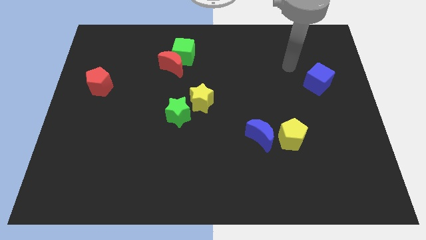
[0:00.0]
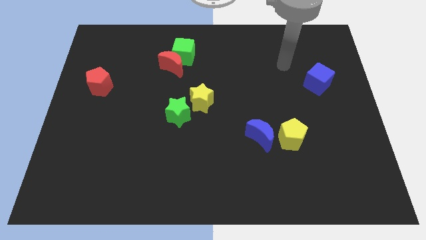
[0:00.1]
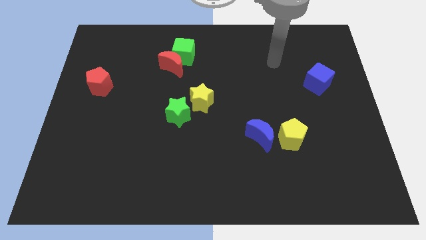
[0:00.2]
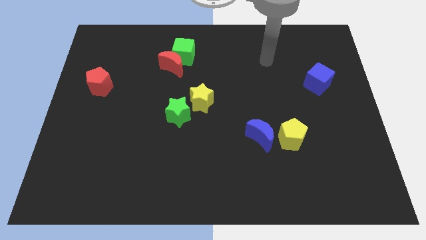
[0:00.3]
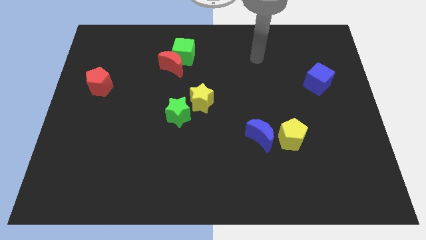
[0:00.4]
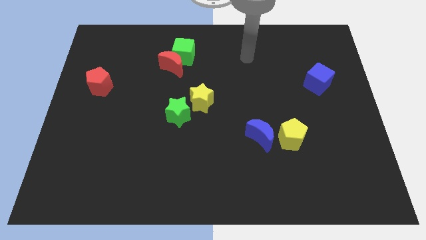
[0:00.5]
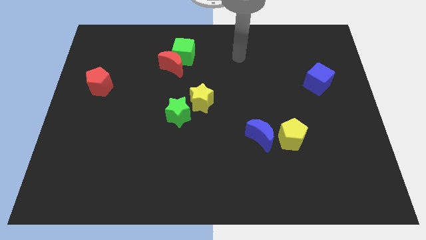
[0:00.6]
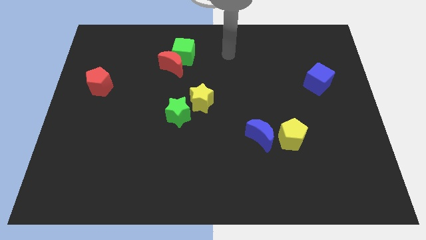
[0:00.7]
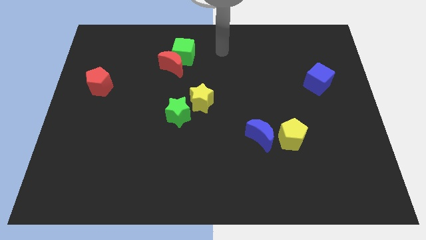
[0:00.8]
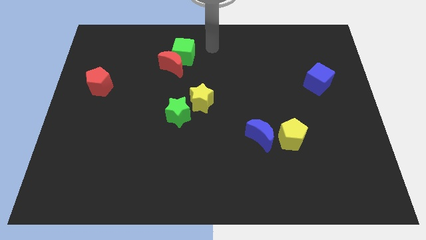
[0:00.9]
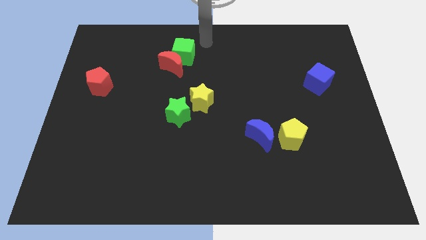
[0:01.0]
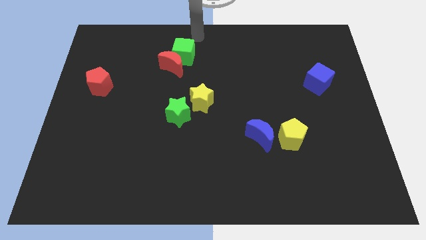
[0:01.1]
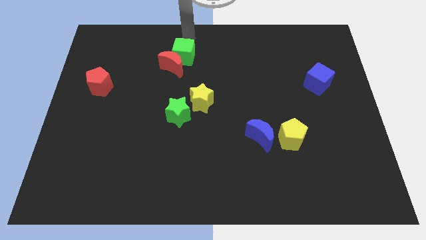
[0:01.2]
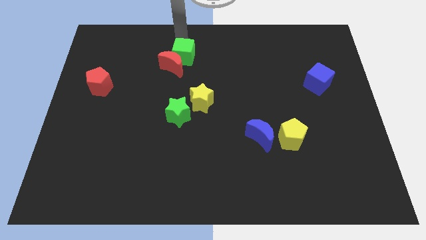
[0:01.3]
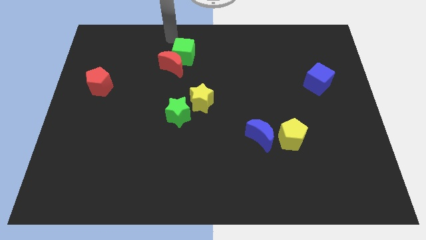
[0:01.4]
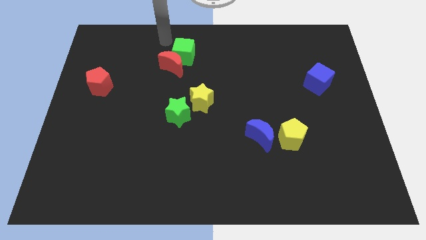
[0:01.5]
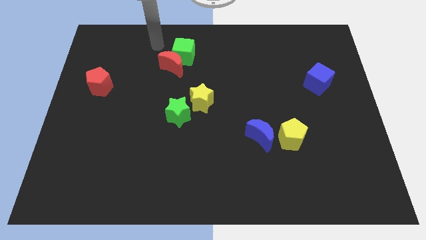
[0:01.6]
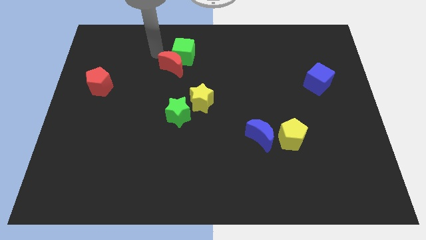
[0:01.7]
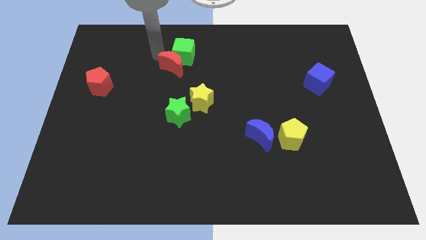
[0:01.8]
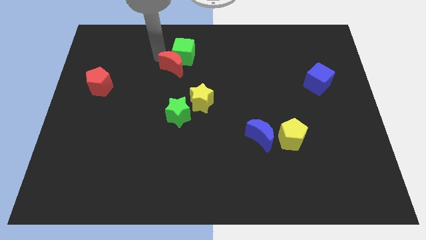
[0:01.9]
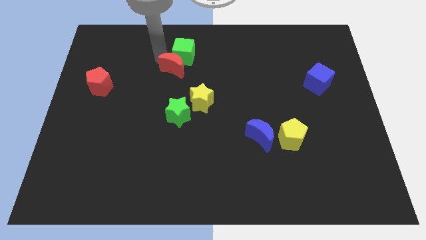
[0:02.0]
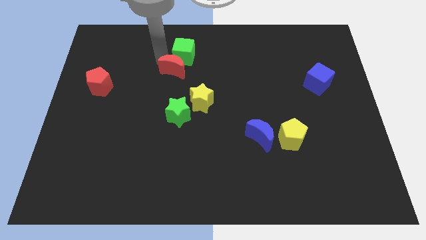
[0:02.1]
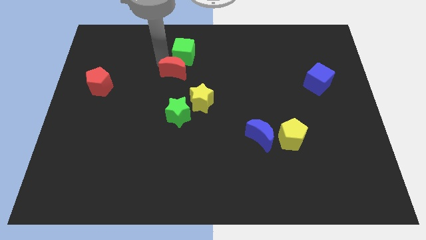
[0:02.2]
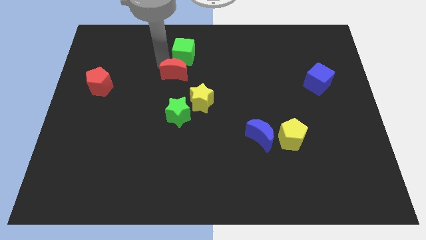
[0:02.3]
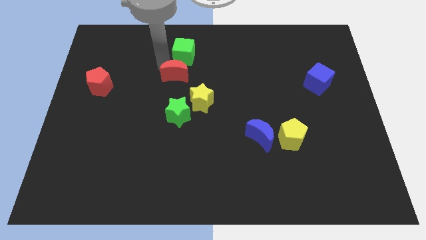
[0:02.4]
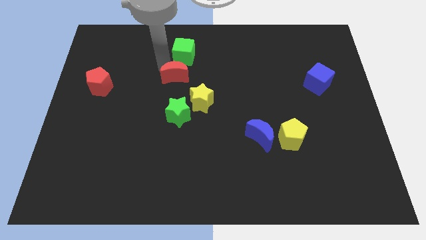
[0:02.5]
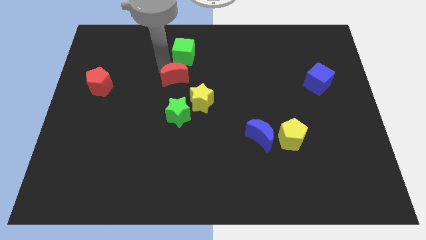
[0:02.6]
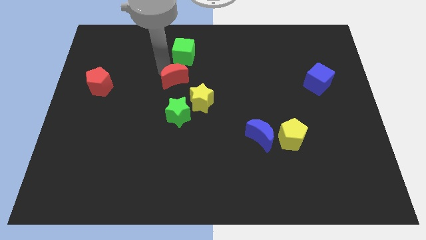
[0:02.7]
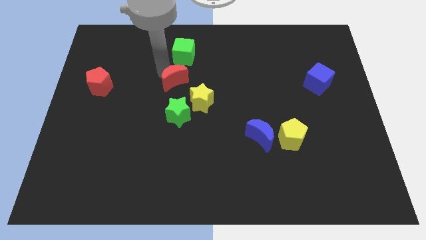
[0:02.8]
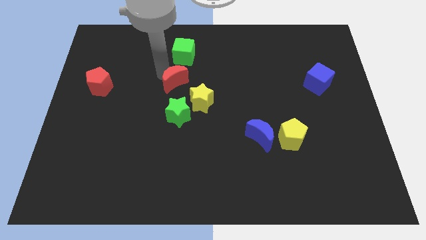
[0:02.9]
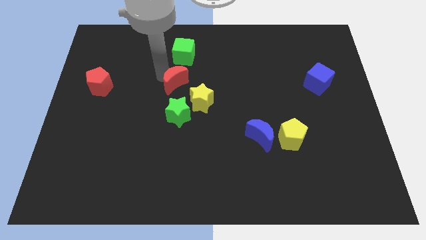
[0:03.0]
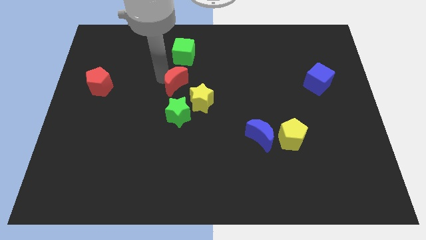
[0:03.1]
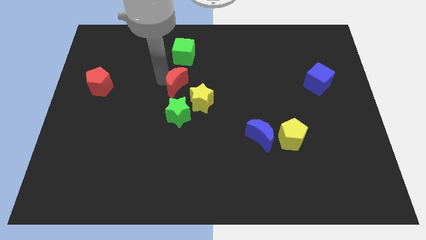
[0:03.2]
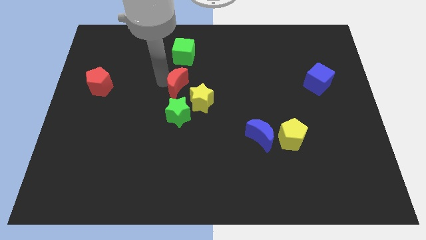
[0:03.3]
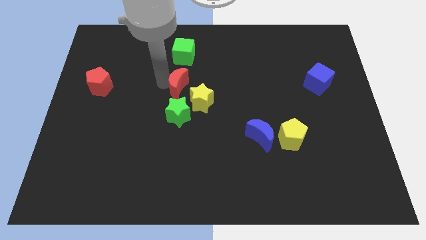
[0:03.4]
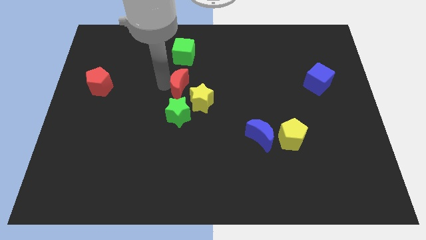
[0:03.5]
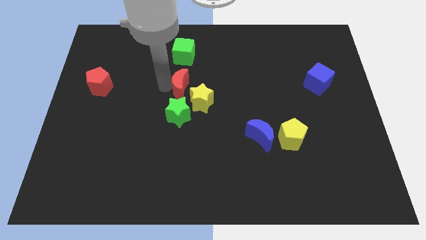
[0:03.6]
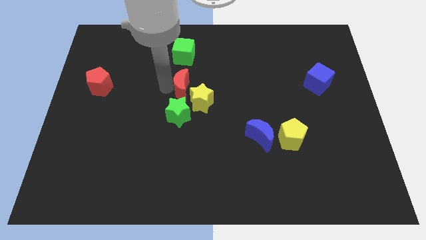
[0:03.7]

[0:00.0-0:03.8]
move the red moon a little bit down and right

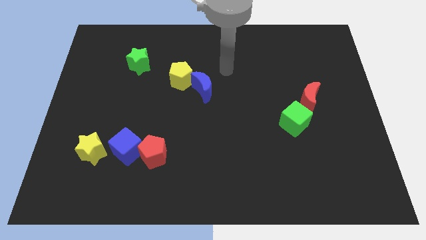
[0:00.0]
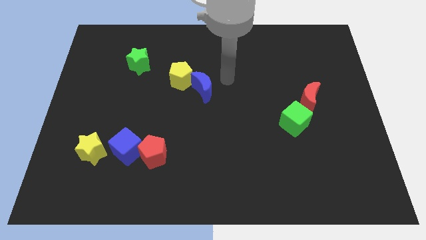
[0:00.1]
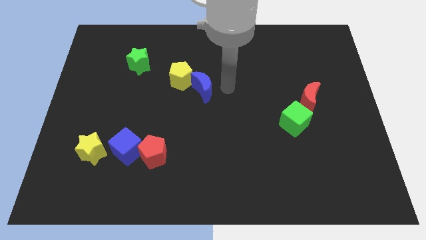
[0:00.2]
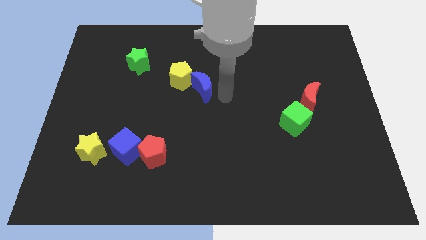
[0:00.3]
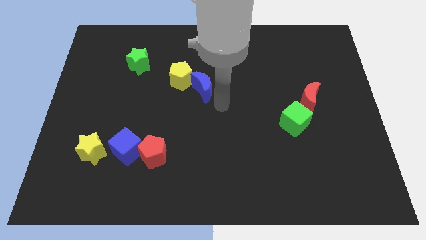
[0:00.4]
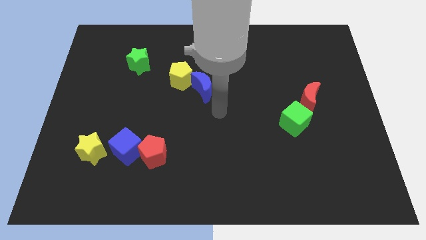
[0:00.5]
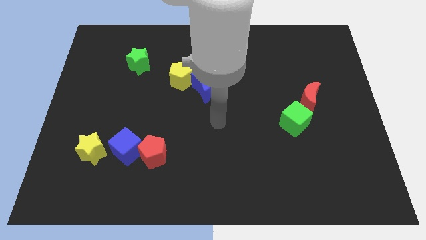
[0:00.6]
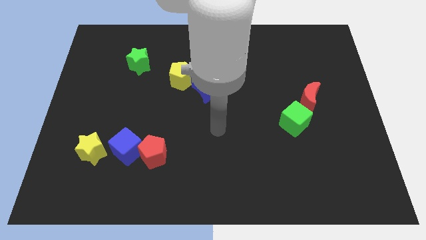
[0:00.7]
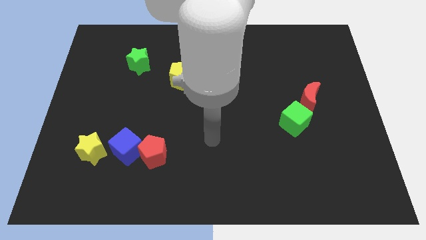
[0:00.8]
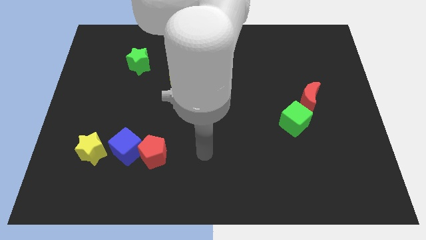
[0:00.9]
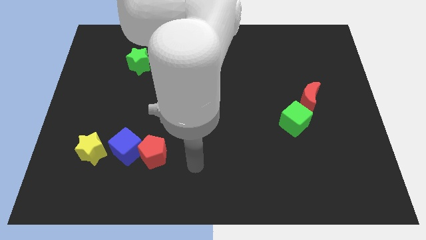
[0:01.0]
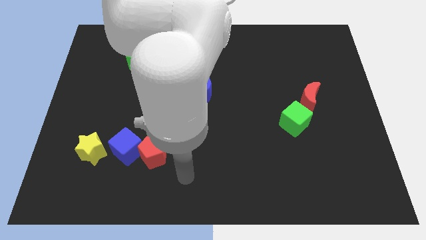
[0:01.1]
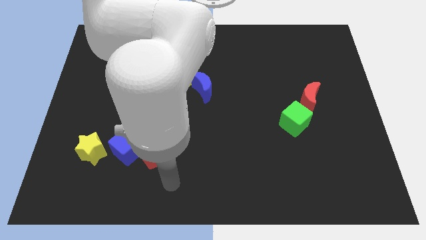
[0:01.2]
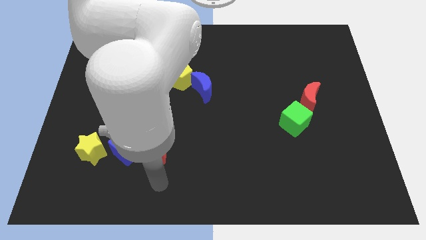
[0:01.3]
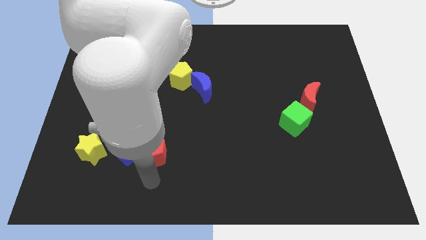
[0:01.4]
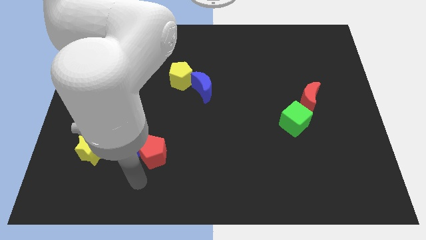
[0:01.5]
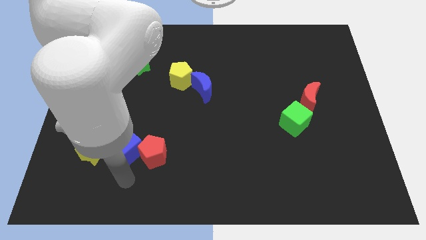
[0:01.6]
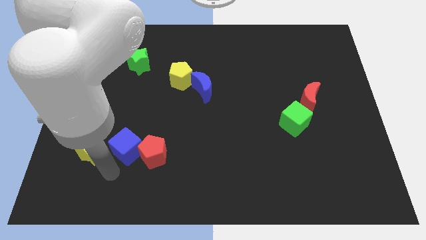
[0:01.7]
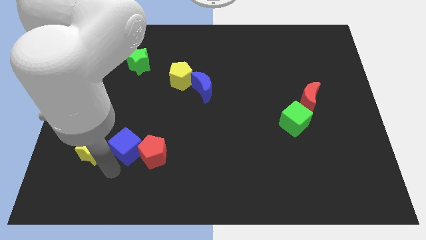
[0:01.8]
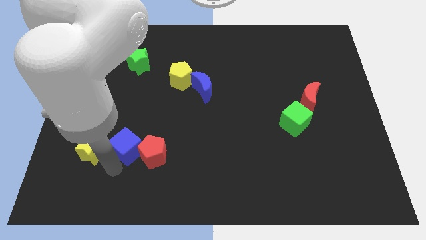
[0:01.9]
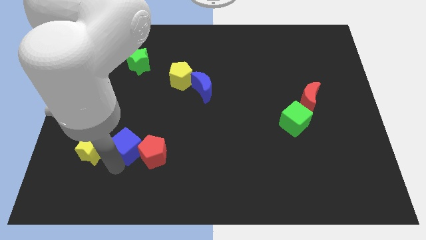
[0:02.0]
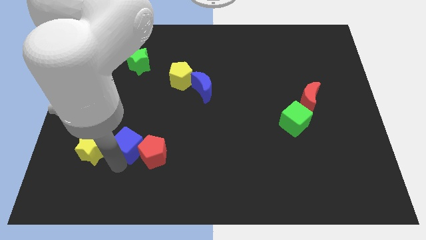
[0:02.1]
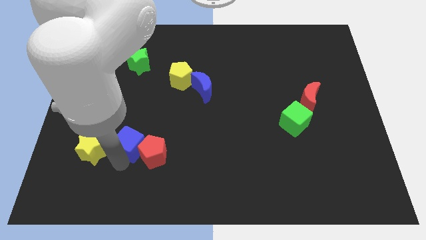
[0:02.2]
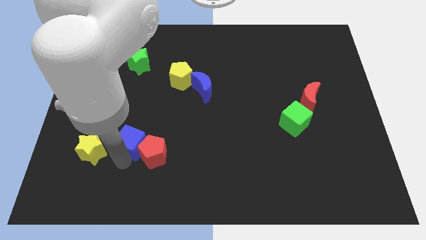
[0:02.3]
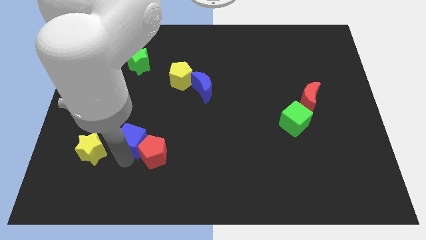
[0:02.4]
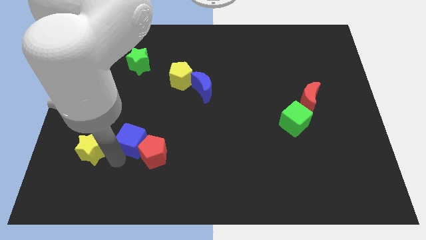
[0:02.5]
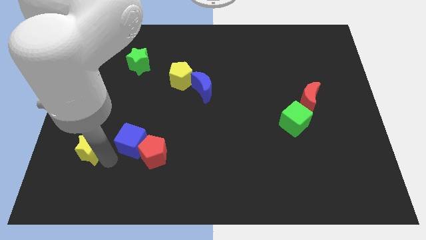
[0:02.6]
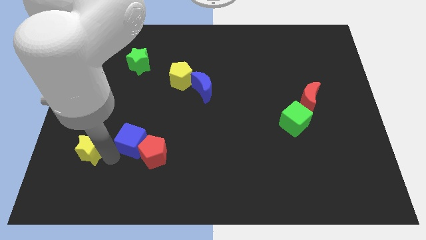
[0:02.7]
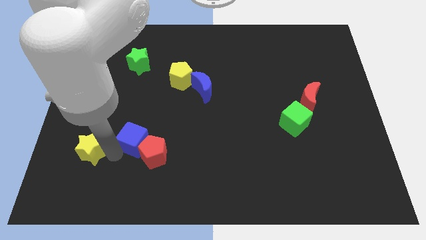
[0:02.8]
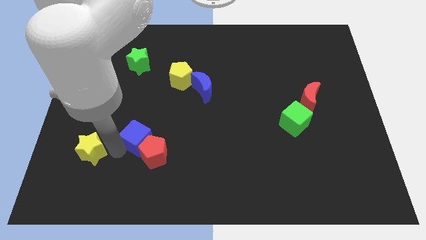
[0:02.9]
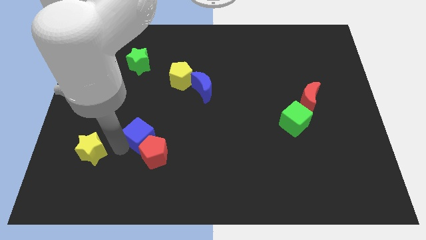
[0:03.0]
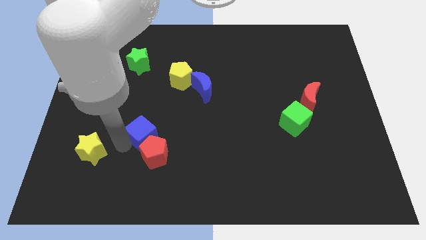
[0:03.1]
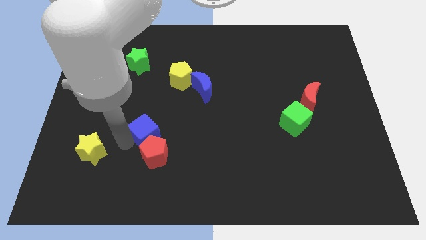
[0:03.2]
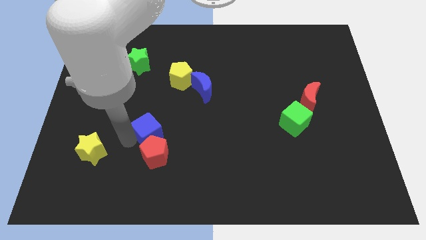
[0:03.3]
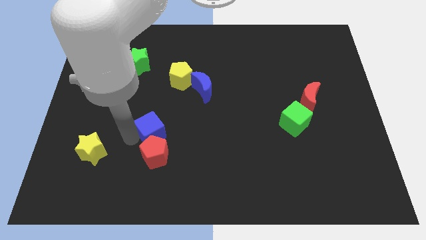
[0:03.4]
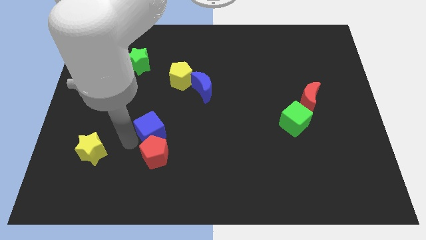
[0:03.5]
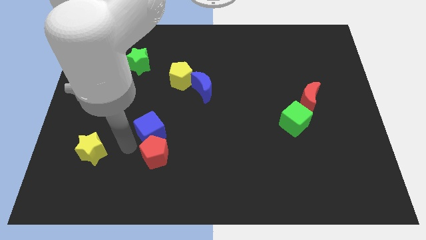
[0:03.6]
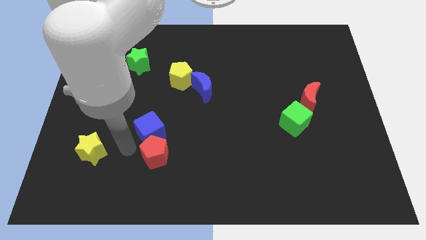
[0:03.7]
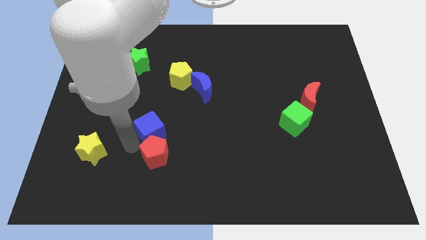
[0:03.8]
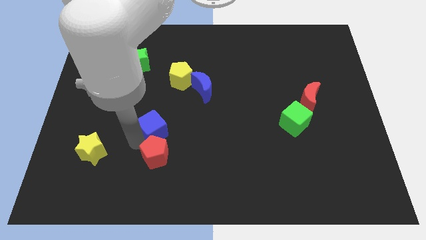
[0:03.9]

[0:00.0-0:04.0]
push the blue cube somewhat upwards and to the right diagonally
